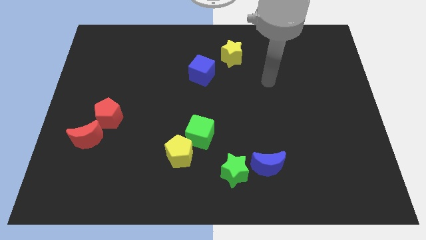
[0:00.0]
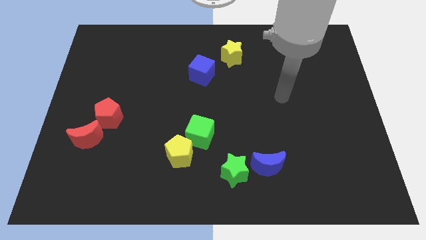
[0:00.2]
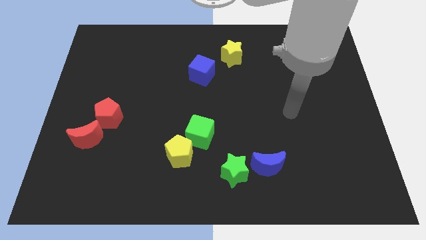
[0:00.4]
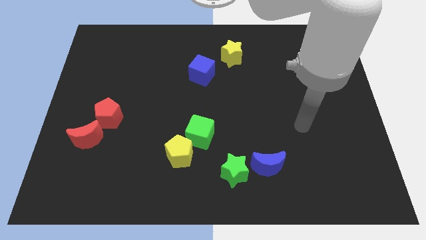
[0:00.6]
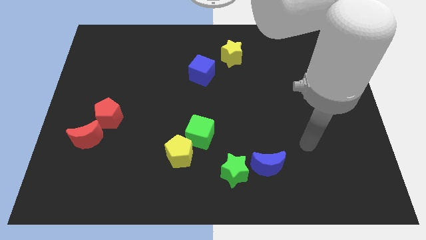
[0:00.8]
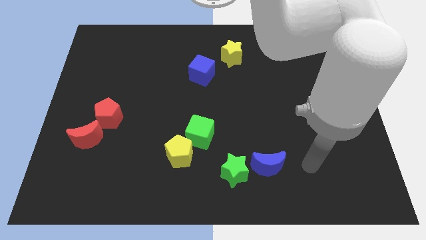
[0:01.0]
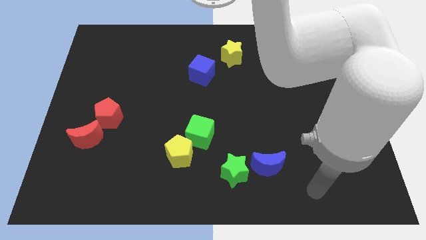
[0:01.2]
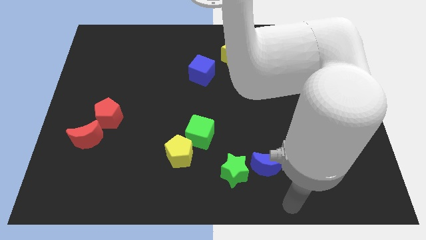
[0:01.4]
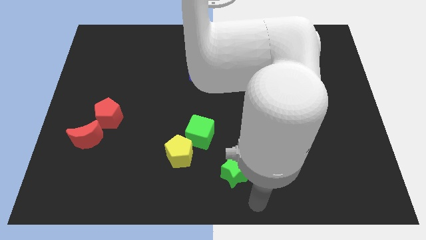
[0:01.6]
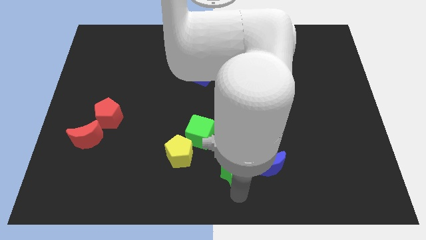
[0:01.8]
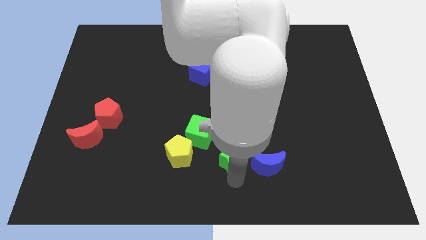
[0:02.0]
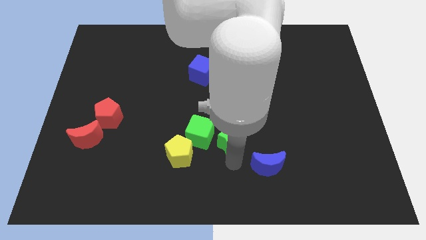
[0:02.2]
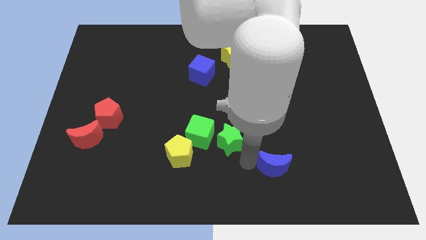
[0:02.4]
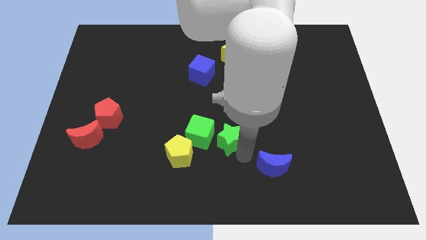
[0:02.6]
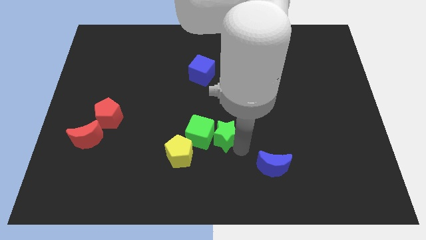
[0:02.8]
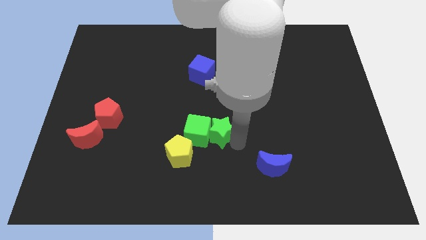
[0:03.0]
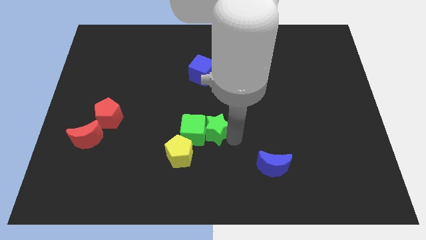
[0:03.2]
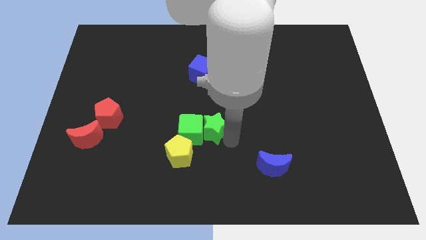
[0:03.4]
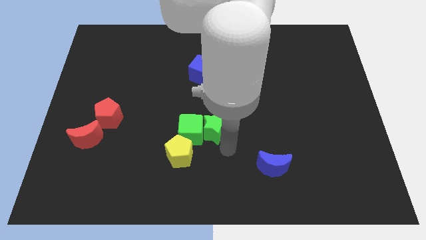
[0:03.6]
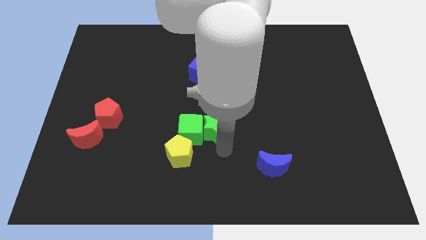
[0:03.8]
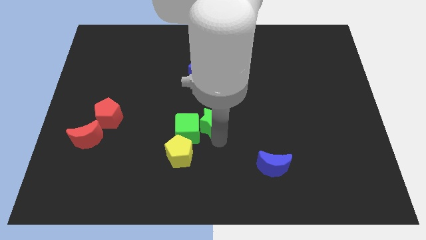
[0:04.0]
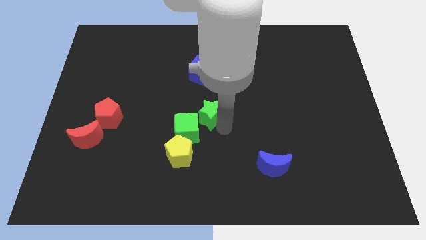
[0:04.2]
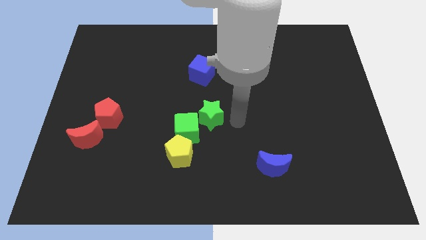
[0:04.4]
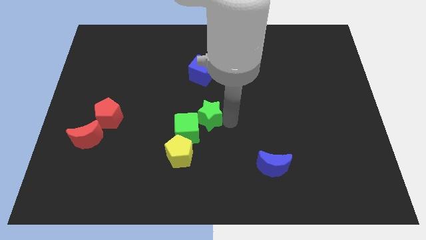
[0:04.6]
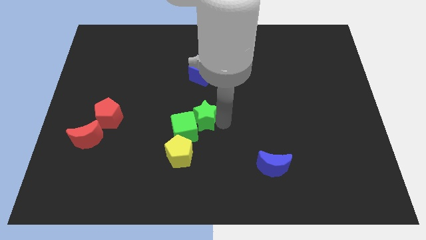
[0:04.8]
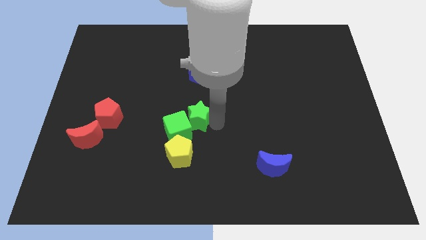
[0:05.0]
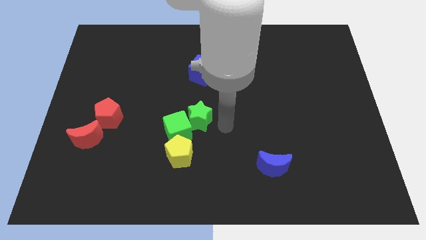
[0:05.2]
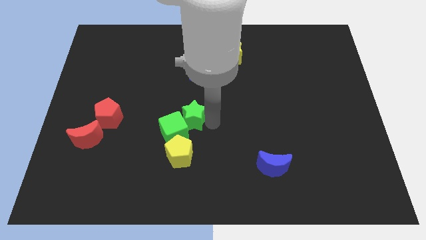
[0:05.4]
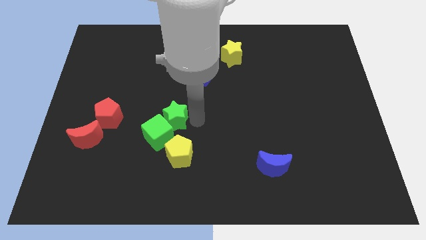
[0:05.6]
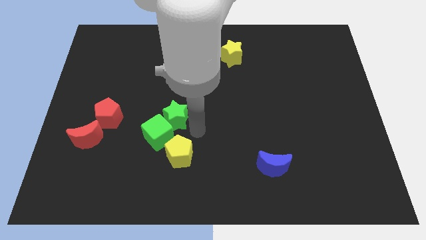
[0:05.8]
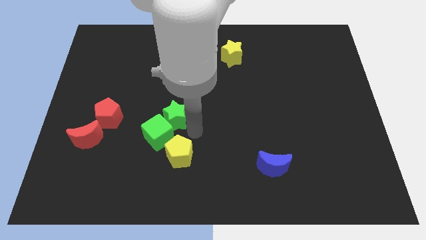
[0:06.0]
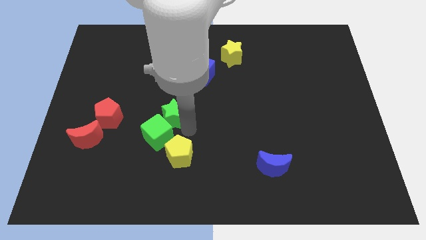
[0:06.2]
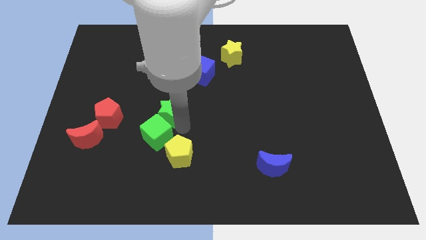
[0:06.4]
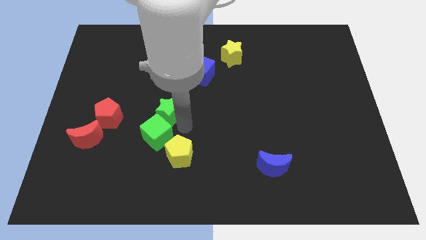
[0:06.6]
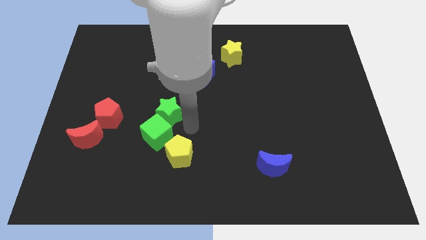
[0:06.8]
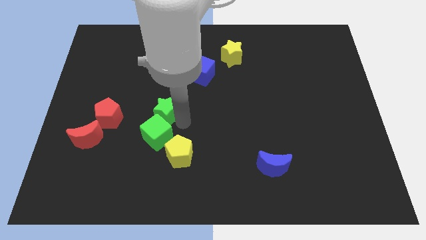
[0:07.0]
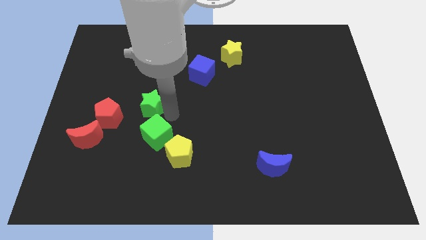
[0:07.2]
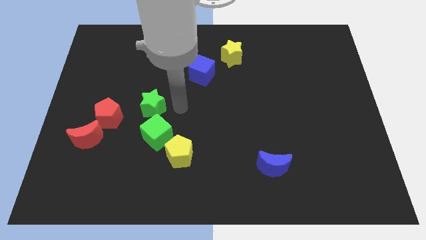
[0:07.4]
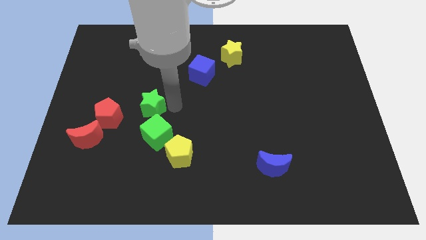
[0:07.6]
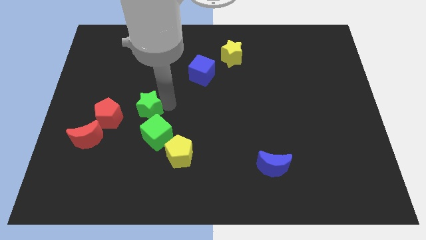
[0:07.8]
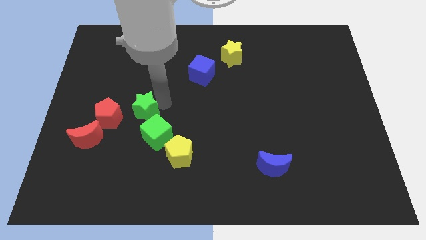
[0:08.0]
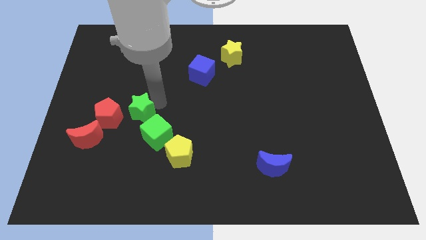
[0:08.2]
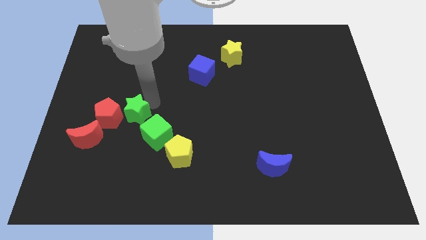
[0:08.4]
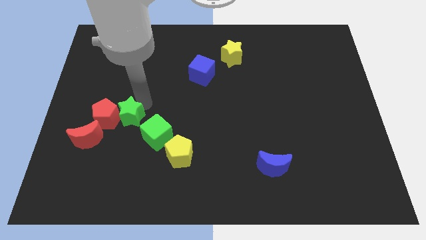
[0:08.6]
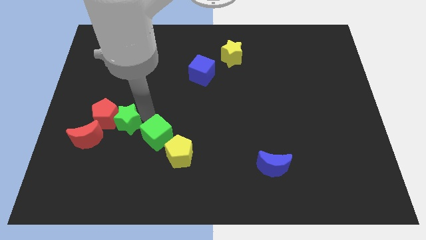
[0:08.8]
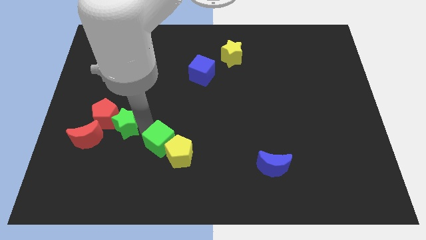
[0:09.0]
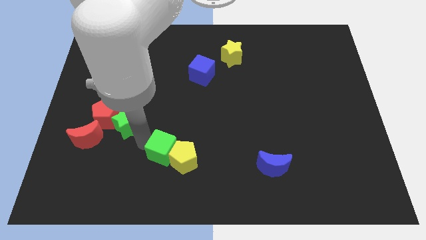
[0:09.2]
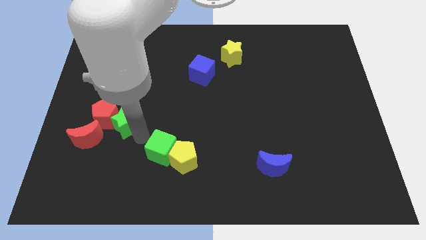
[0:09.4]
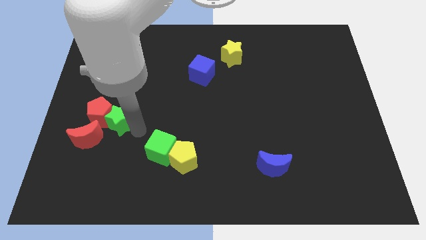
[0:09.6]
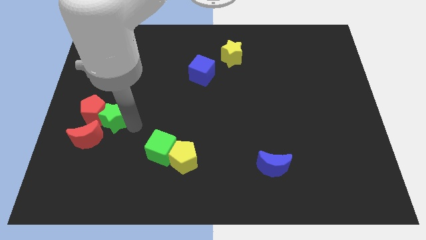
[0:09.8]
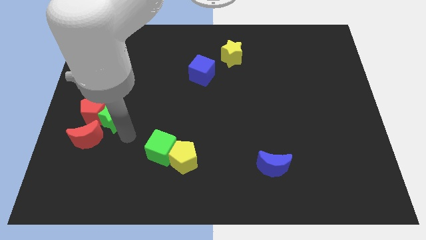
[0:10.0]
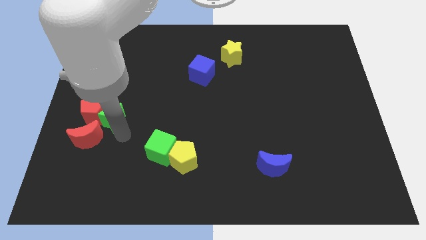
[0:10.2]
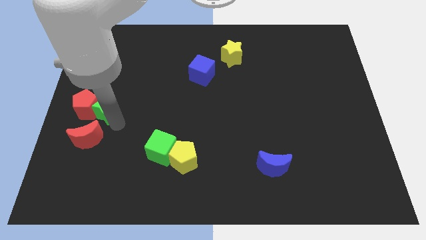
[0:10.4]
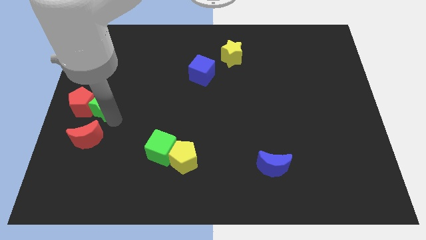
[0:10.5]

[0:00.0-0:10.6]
slide the green star to the left side

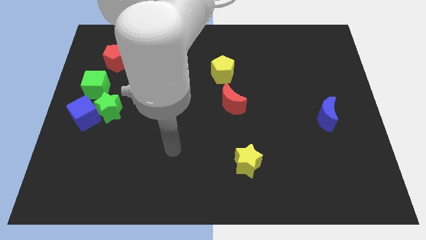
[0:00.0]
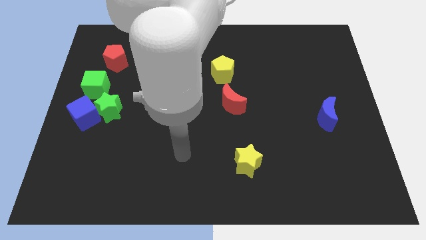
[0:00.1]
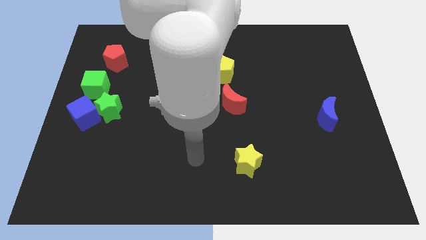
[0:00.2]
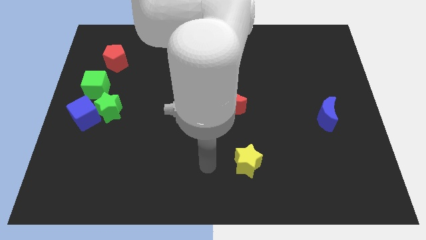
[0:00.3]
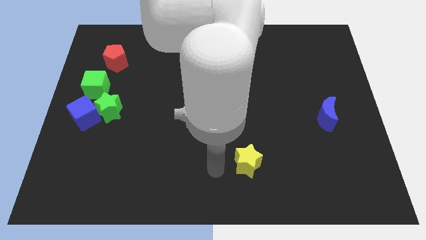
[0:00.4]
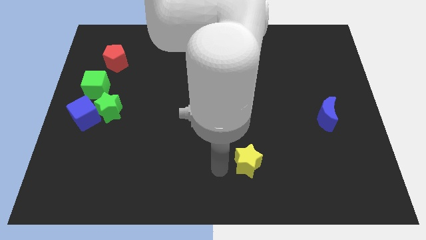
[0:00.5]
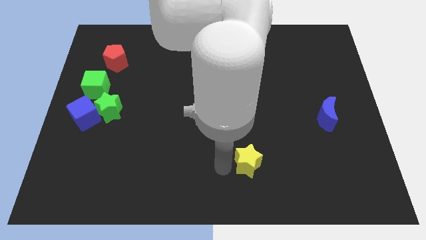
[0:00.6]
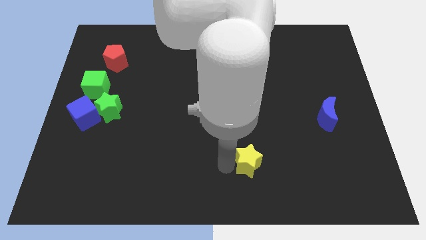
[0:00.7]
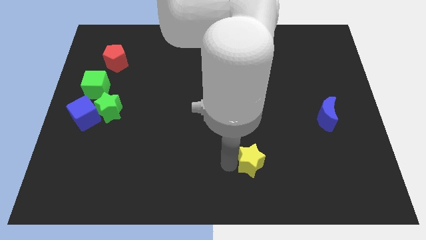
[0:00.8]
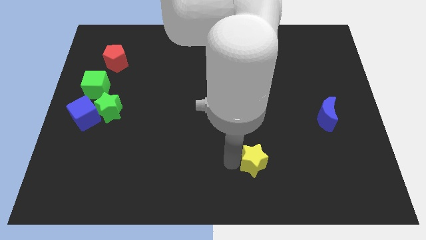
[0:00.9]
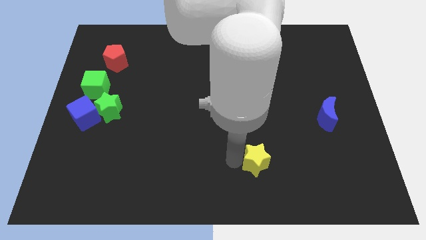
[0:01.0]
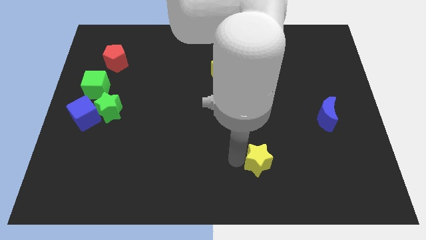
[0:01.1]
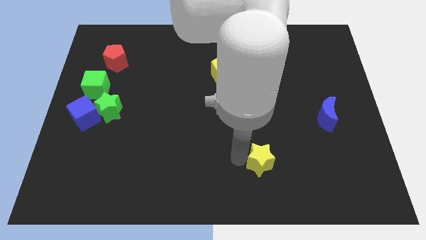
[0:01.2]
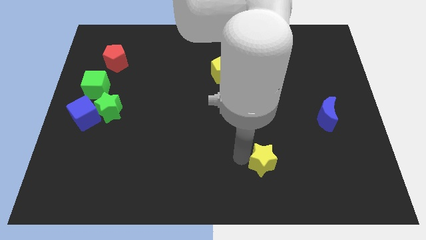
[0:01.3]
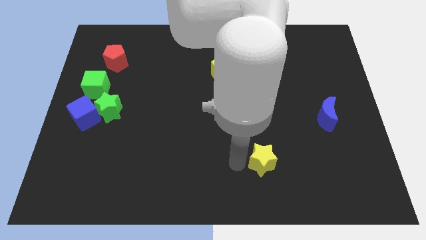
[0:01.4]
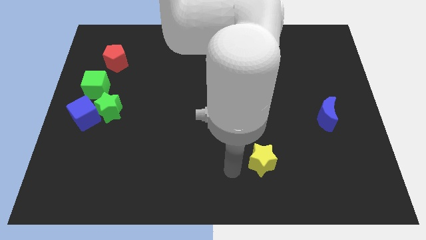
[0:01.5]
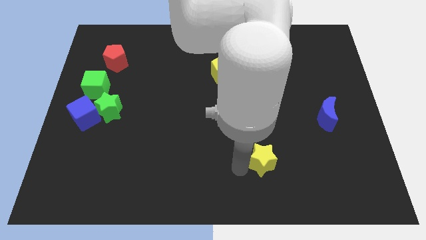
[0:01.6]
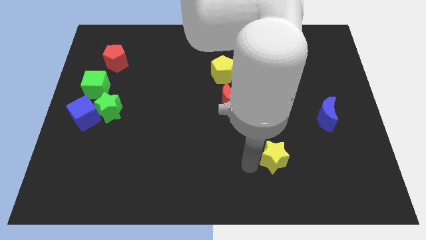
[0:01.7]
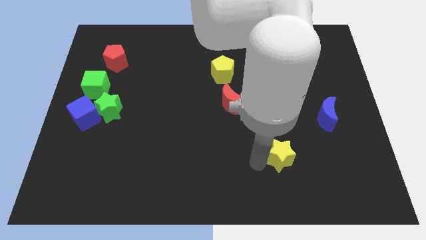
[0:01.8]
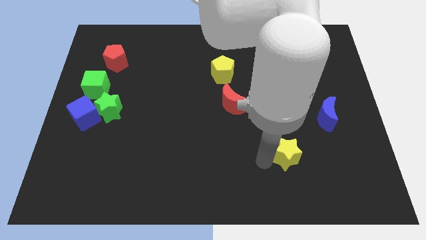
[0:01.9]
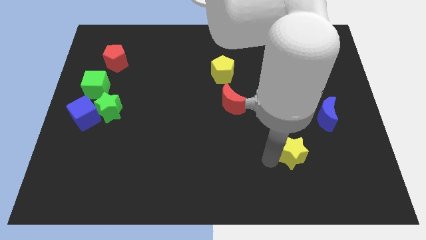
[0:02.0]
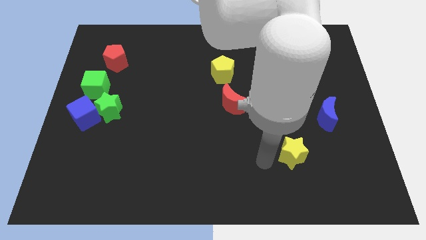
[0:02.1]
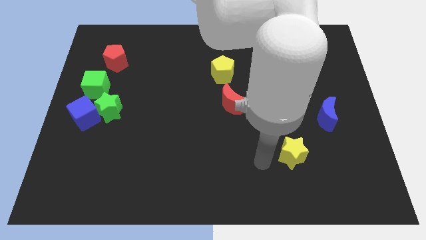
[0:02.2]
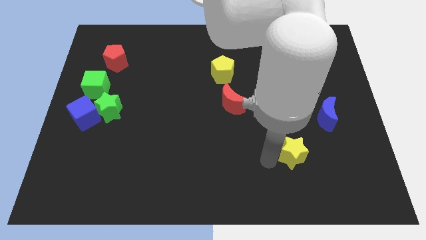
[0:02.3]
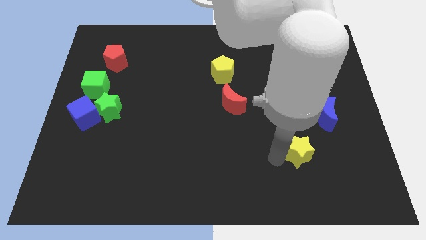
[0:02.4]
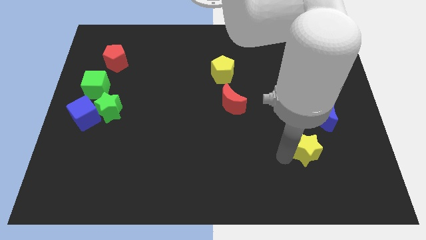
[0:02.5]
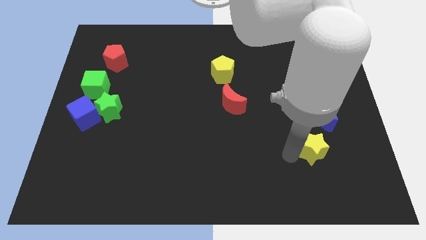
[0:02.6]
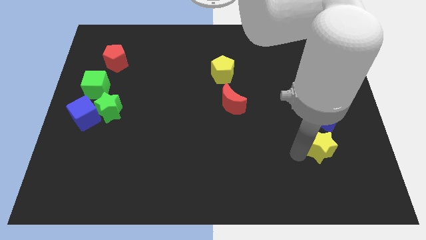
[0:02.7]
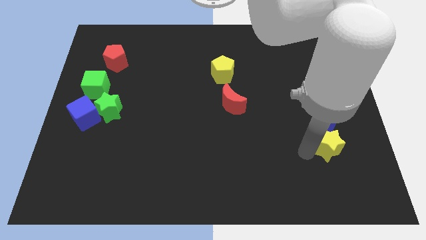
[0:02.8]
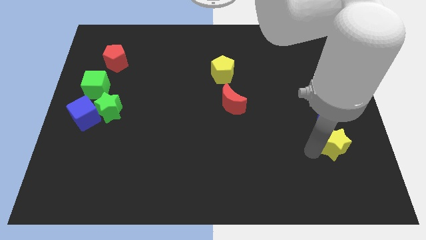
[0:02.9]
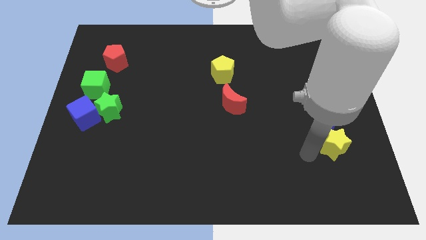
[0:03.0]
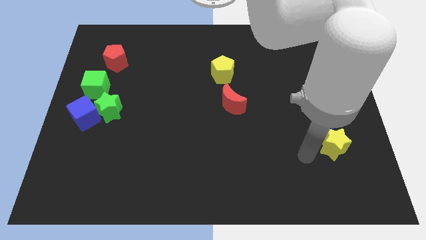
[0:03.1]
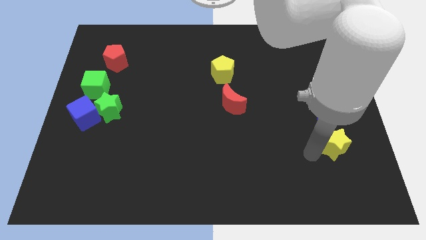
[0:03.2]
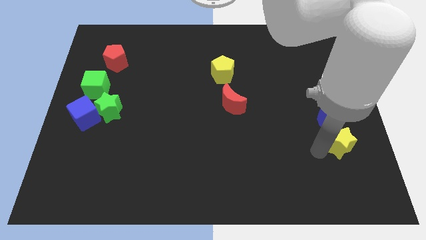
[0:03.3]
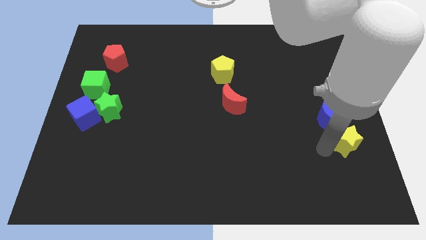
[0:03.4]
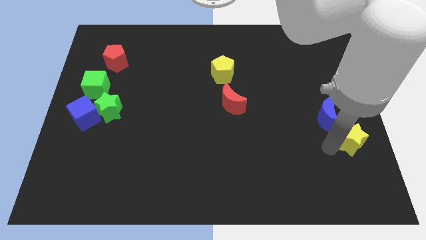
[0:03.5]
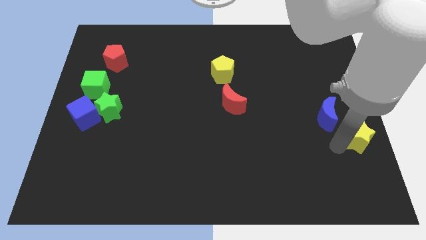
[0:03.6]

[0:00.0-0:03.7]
push the yellow star to the right side
